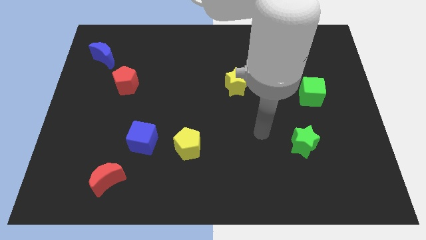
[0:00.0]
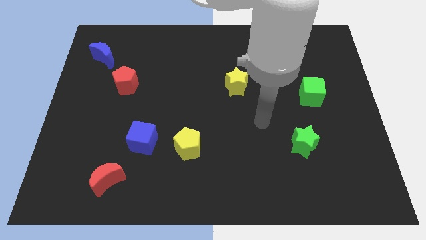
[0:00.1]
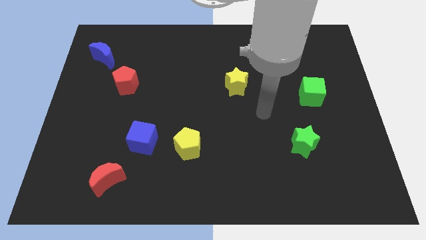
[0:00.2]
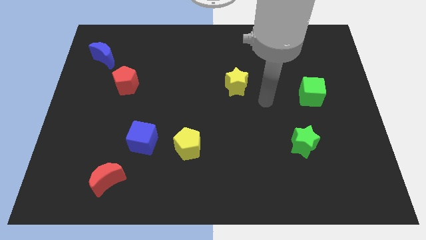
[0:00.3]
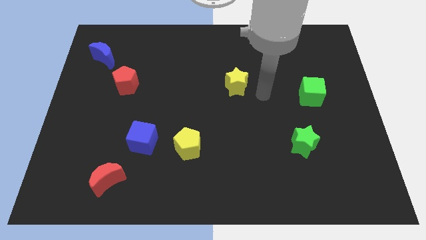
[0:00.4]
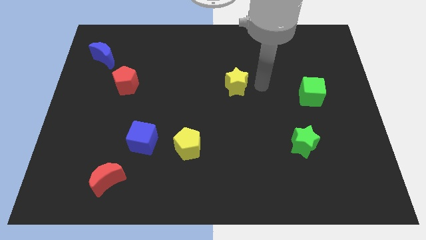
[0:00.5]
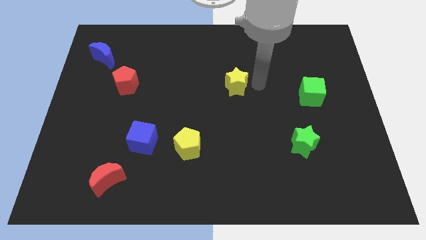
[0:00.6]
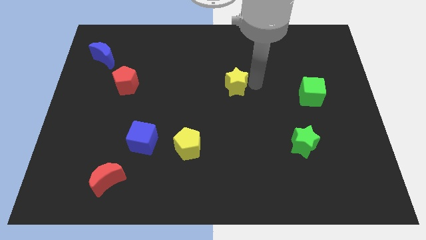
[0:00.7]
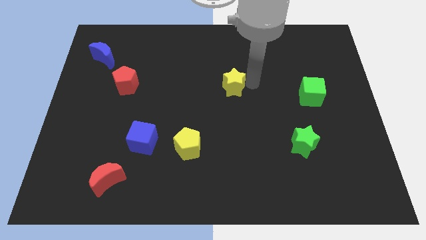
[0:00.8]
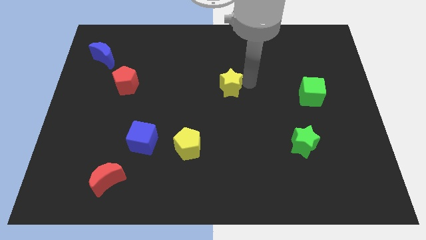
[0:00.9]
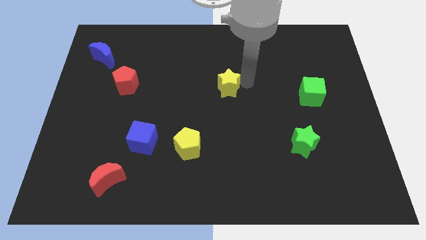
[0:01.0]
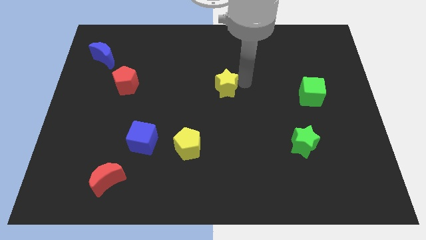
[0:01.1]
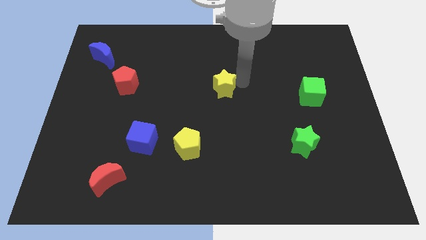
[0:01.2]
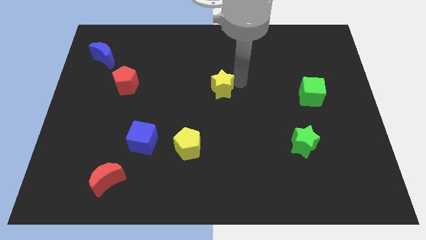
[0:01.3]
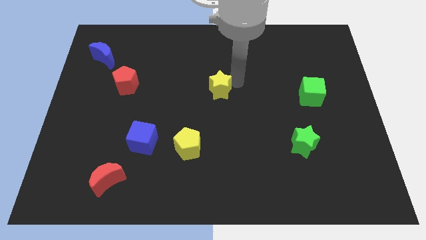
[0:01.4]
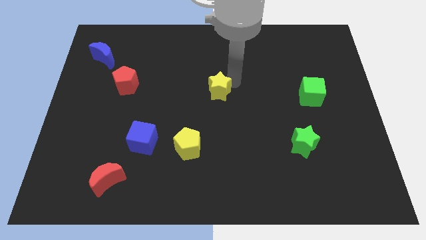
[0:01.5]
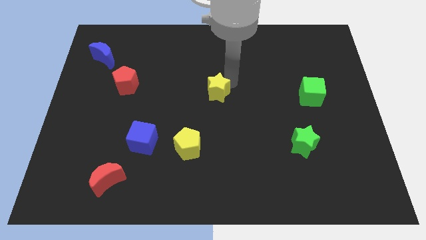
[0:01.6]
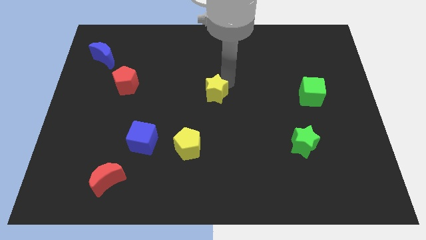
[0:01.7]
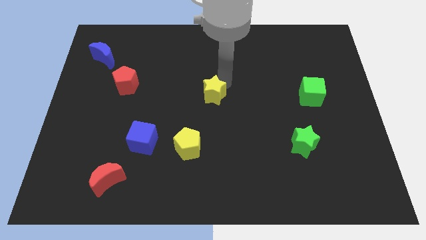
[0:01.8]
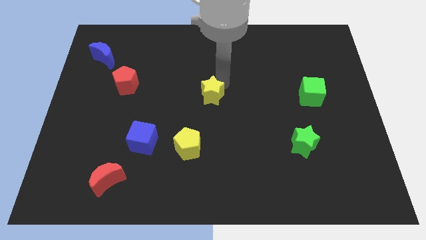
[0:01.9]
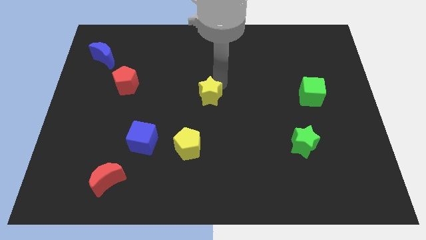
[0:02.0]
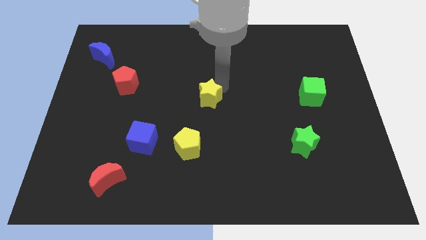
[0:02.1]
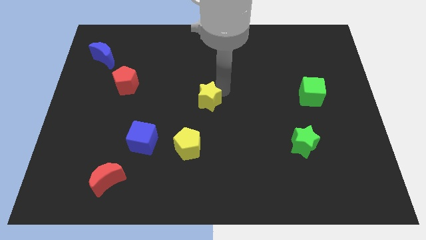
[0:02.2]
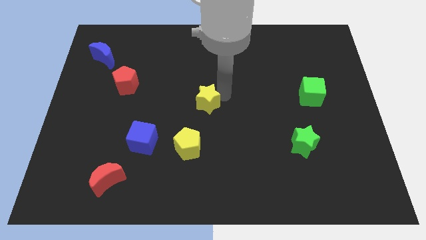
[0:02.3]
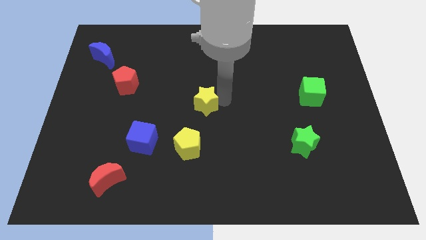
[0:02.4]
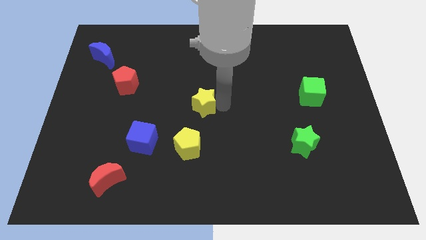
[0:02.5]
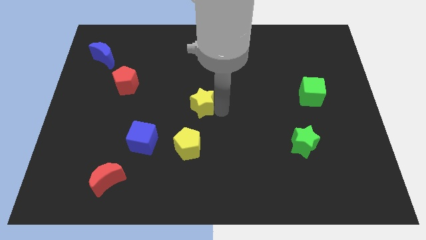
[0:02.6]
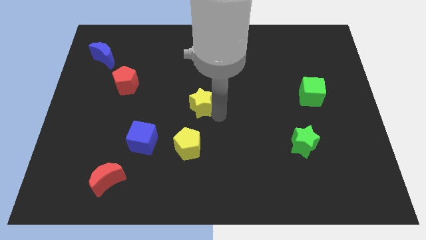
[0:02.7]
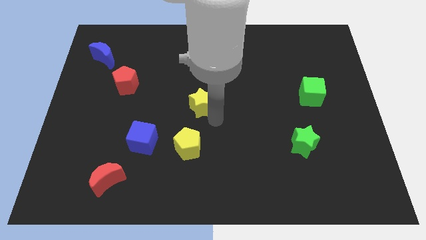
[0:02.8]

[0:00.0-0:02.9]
push the yellow star to the left a little bit

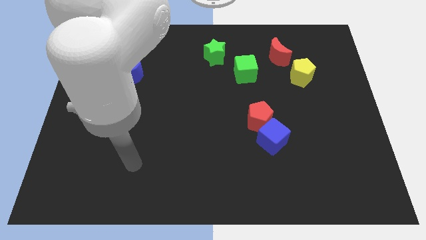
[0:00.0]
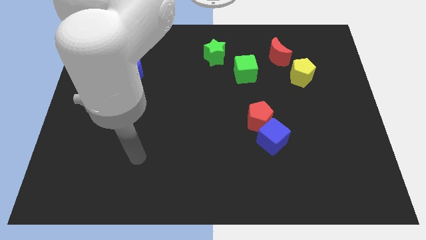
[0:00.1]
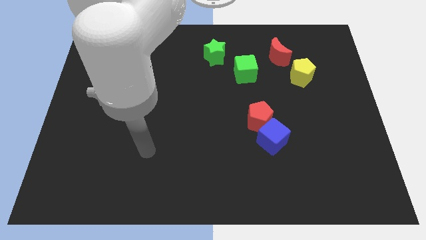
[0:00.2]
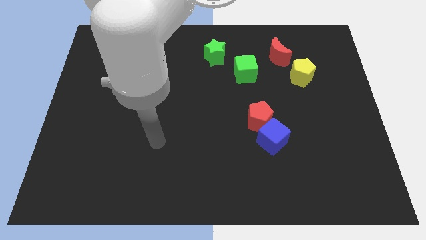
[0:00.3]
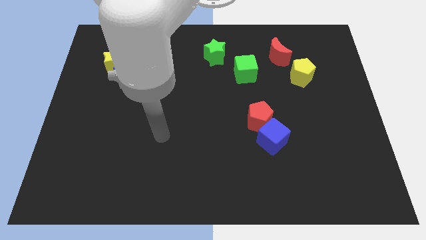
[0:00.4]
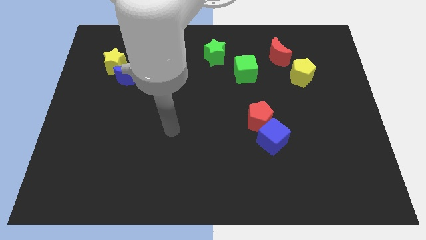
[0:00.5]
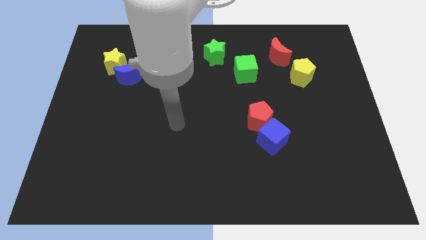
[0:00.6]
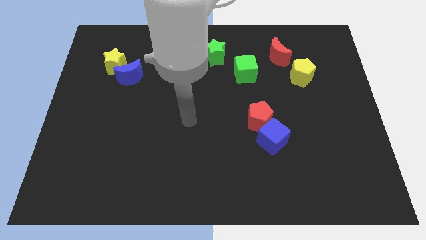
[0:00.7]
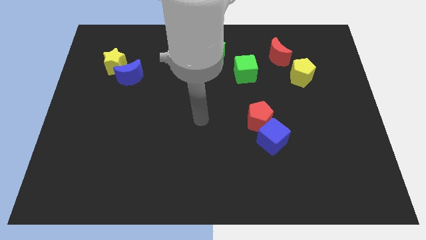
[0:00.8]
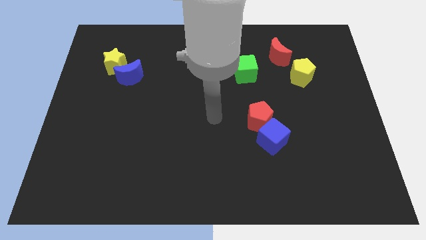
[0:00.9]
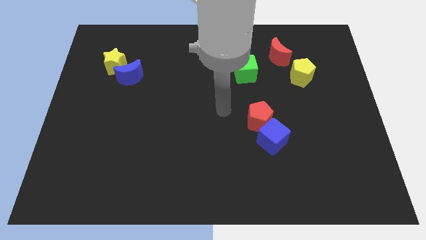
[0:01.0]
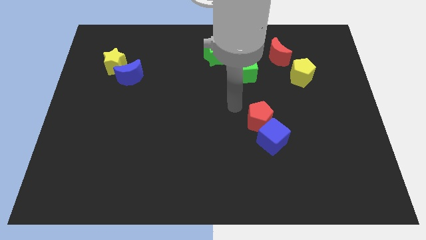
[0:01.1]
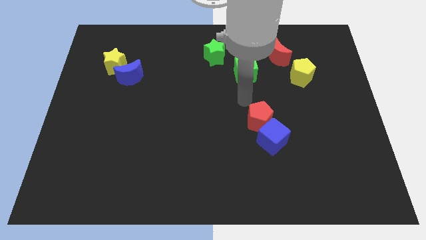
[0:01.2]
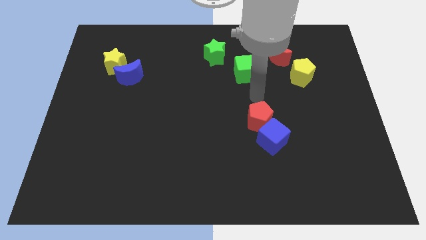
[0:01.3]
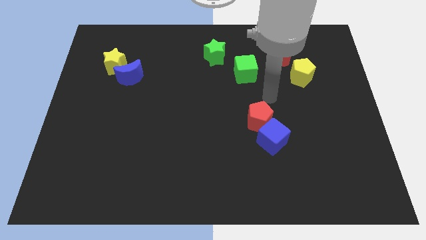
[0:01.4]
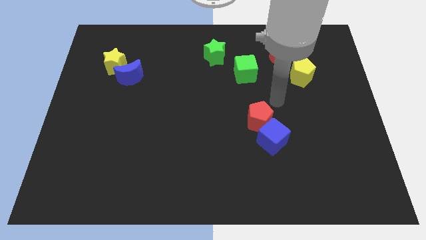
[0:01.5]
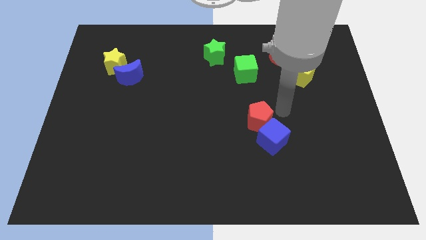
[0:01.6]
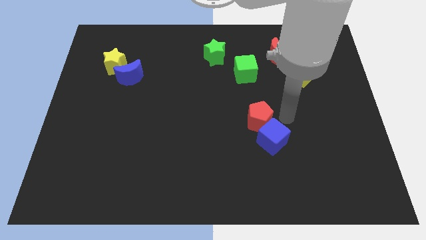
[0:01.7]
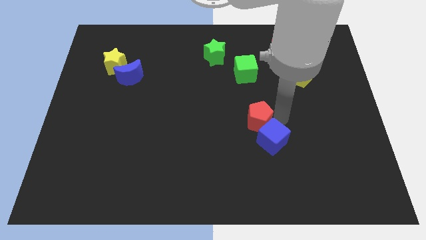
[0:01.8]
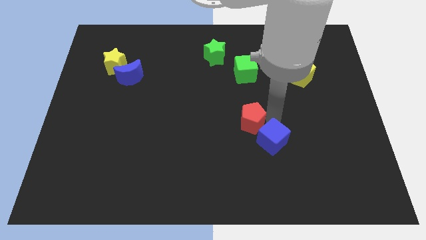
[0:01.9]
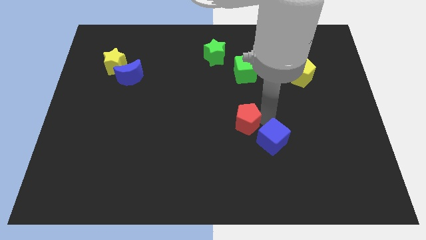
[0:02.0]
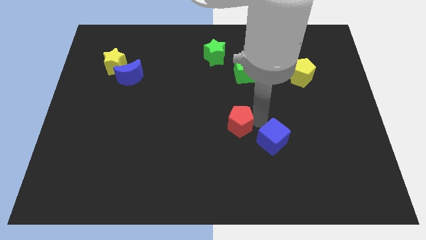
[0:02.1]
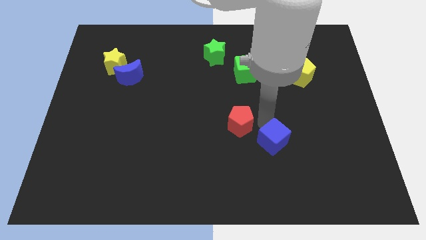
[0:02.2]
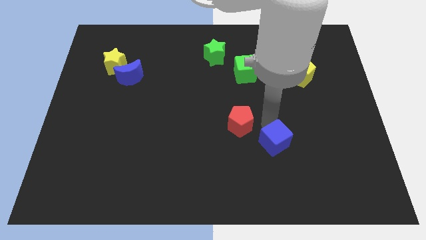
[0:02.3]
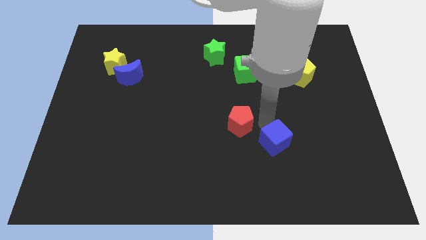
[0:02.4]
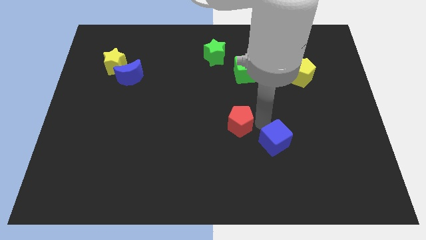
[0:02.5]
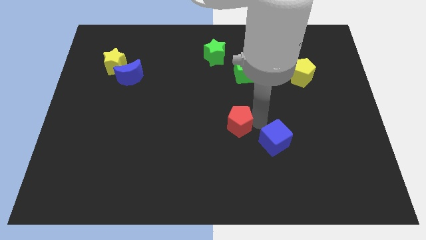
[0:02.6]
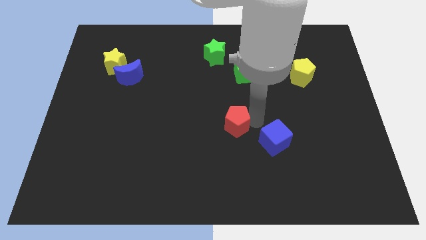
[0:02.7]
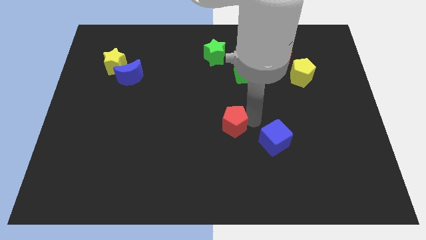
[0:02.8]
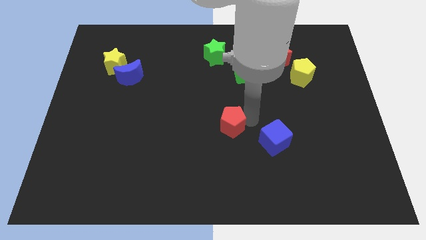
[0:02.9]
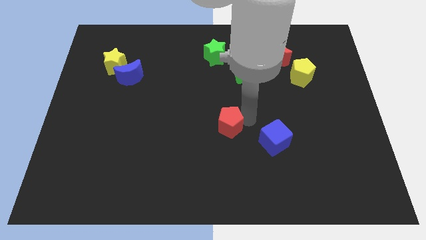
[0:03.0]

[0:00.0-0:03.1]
move the red pentagon somewhat left

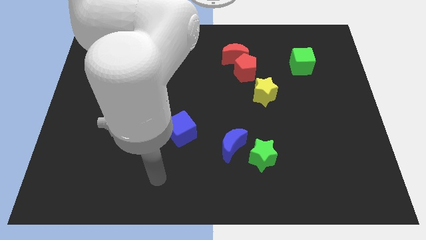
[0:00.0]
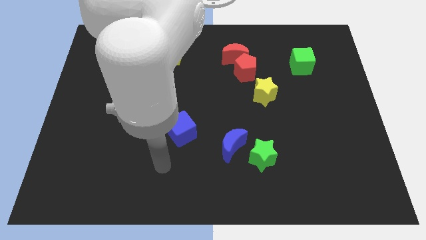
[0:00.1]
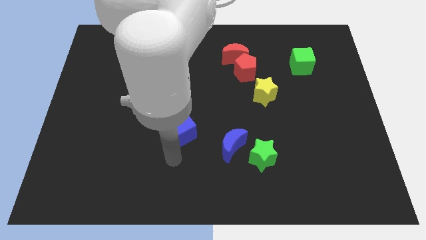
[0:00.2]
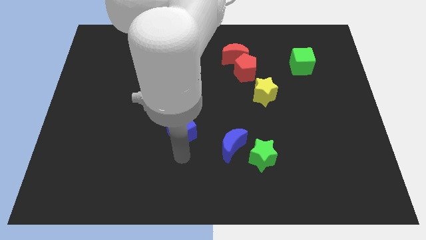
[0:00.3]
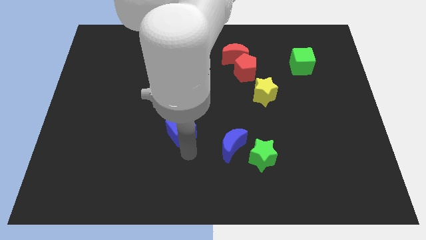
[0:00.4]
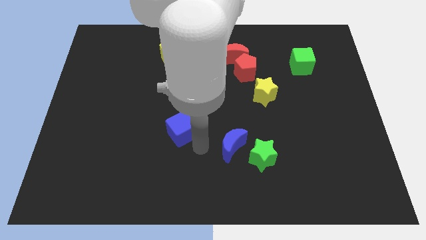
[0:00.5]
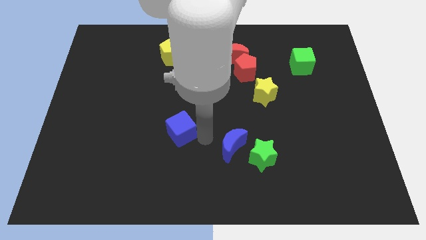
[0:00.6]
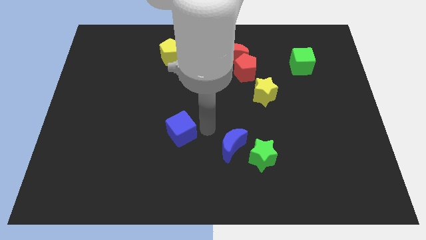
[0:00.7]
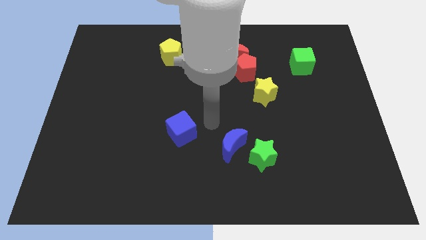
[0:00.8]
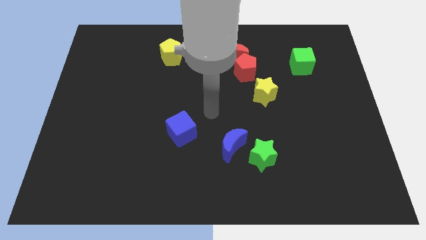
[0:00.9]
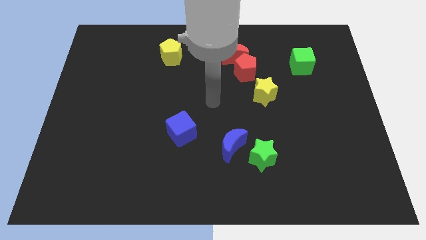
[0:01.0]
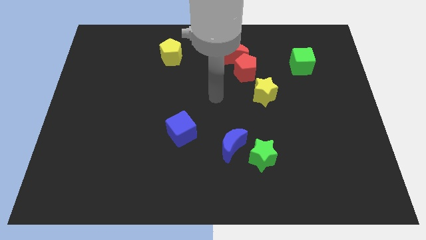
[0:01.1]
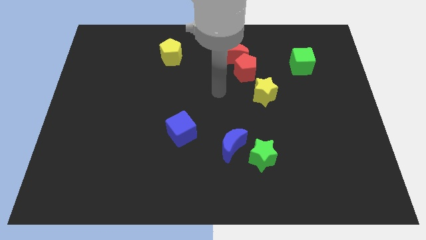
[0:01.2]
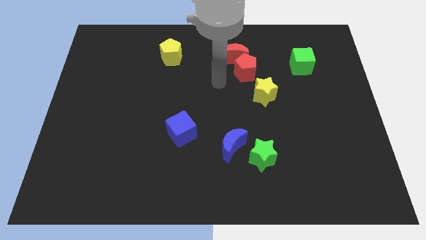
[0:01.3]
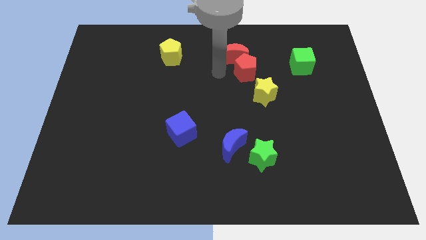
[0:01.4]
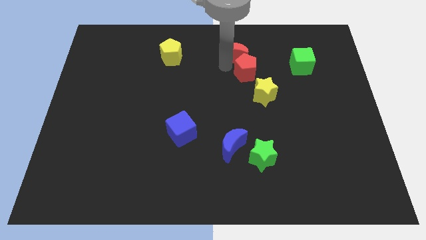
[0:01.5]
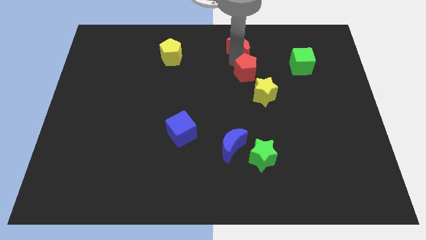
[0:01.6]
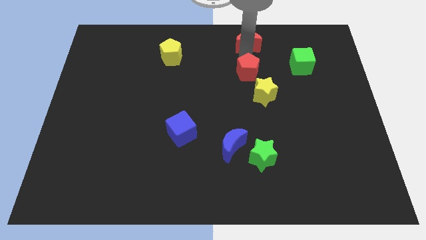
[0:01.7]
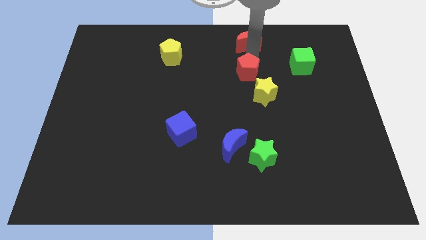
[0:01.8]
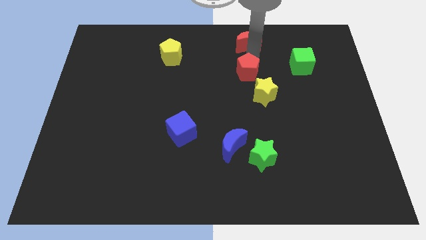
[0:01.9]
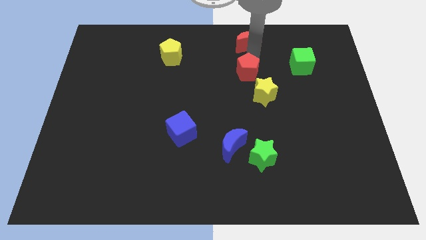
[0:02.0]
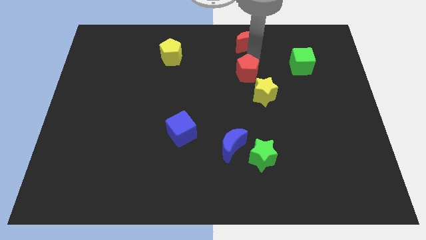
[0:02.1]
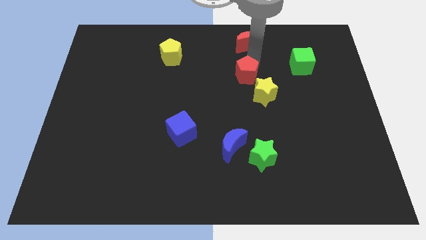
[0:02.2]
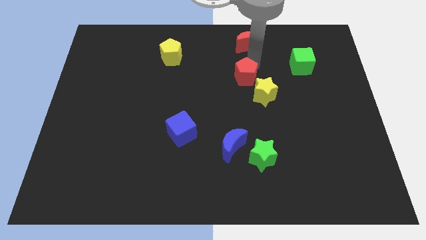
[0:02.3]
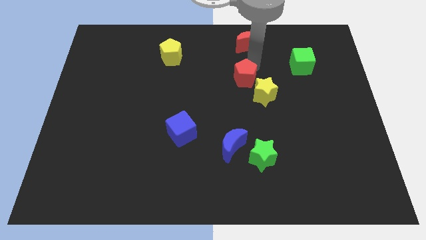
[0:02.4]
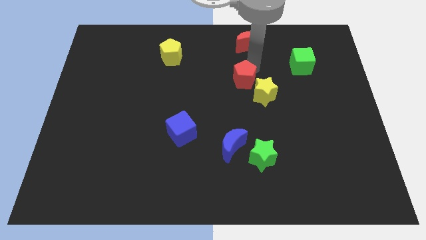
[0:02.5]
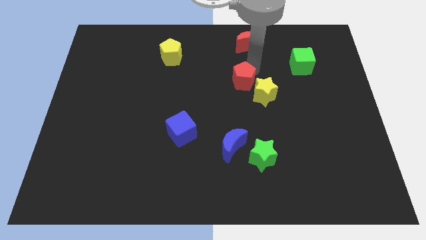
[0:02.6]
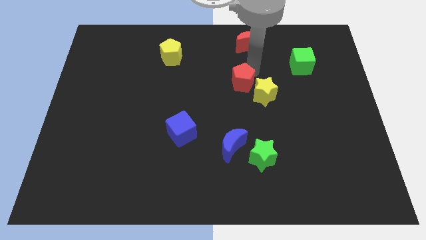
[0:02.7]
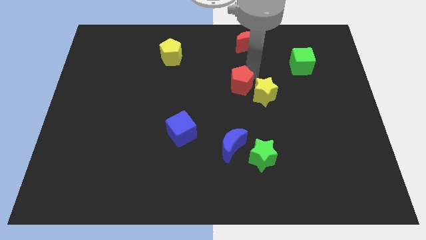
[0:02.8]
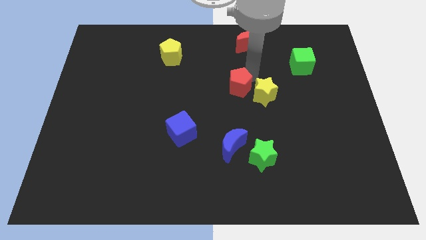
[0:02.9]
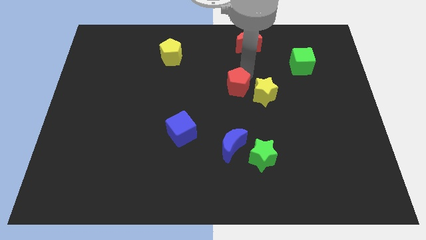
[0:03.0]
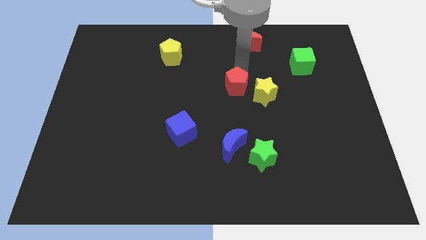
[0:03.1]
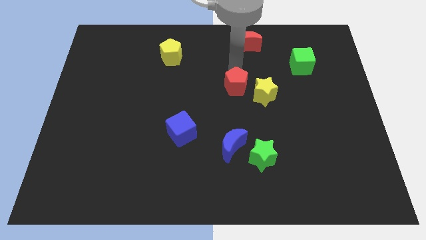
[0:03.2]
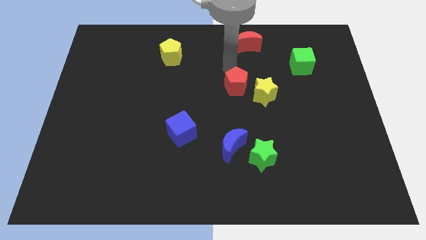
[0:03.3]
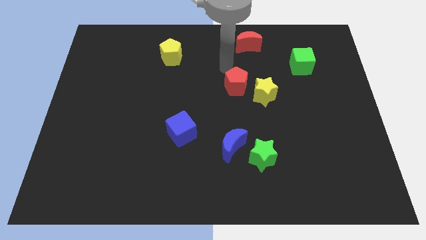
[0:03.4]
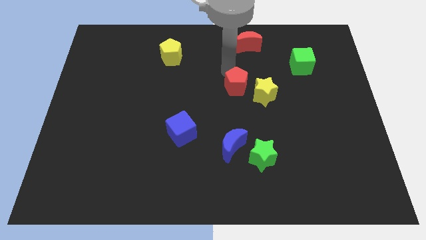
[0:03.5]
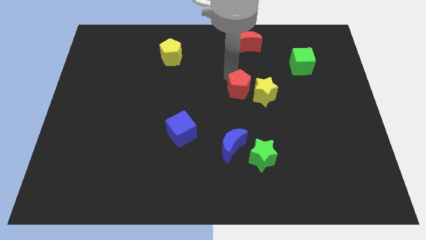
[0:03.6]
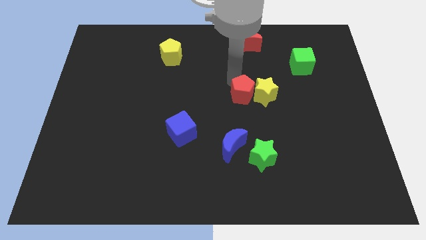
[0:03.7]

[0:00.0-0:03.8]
slide the red pentagon downwards slightly
